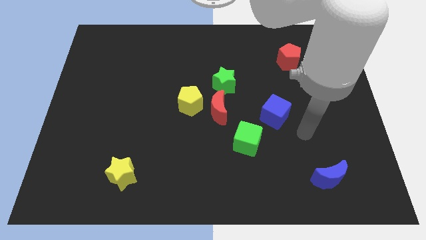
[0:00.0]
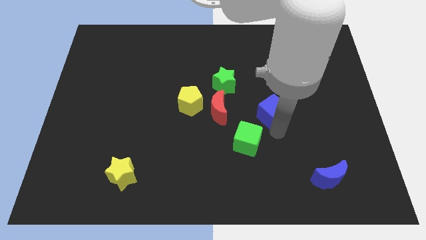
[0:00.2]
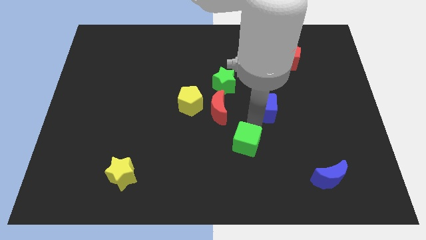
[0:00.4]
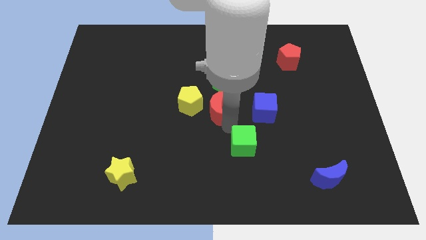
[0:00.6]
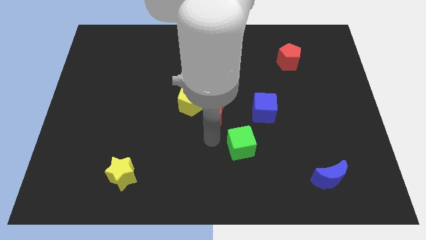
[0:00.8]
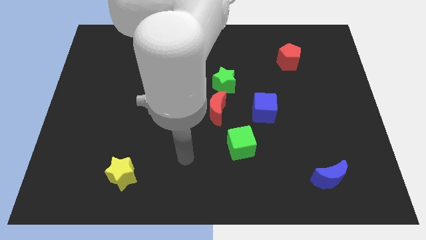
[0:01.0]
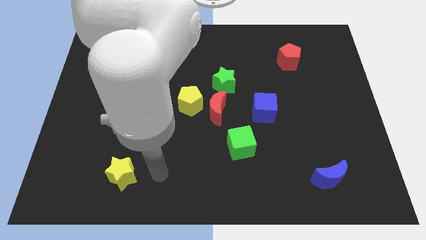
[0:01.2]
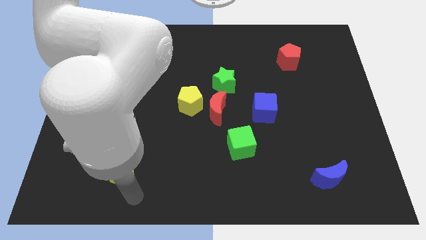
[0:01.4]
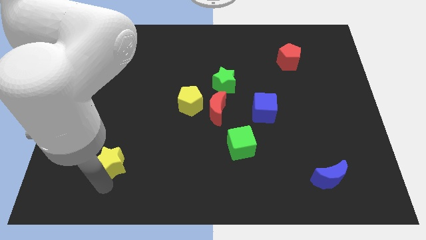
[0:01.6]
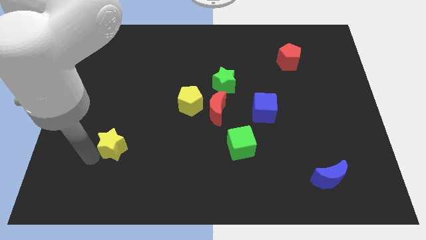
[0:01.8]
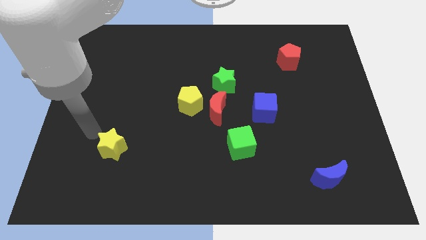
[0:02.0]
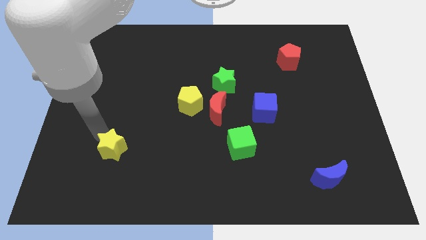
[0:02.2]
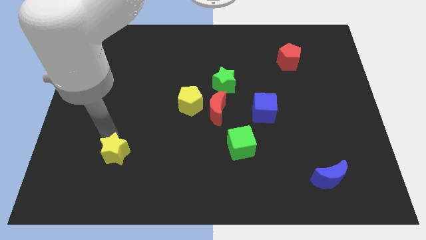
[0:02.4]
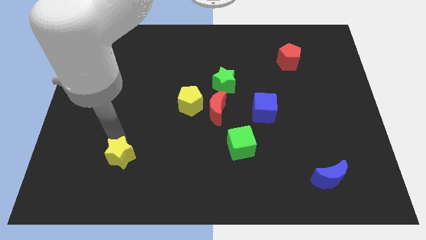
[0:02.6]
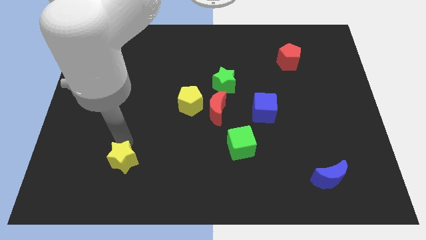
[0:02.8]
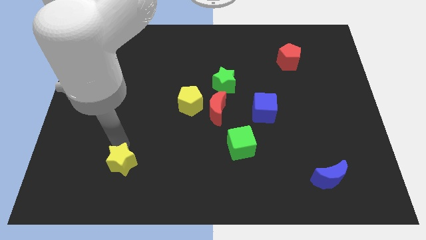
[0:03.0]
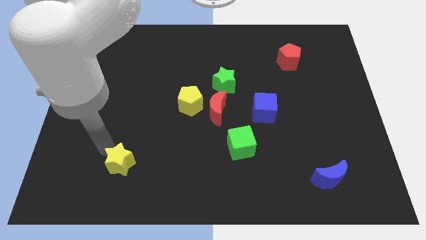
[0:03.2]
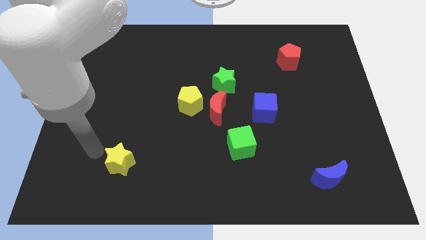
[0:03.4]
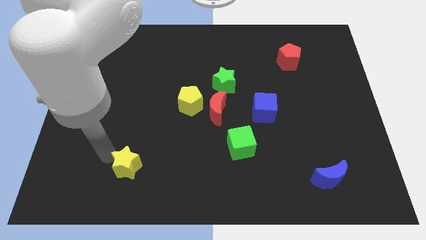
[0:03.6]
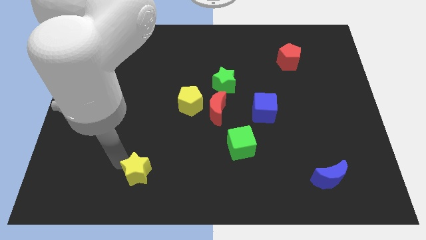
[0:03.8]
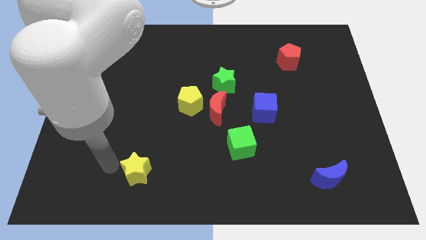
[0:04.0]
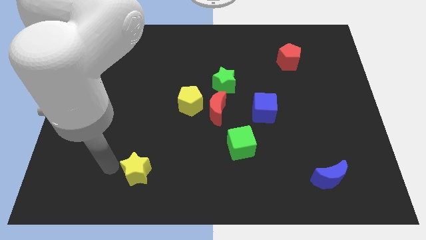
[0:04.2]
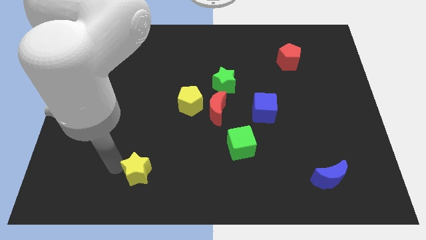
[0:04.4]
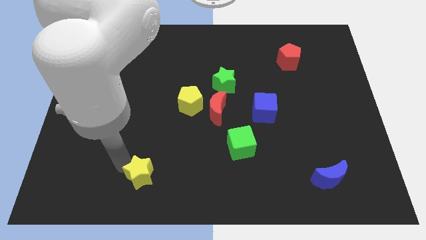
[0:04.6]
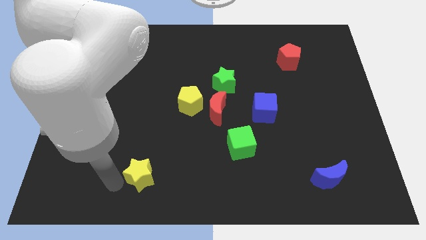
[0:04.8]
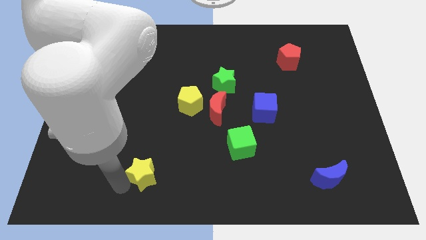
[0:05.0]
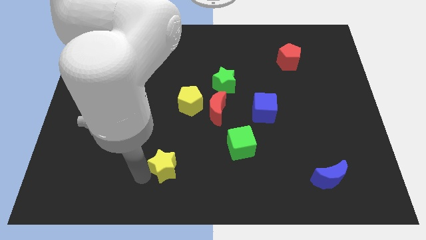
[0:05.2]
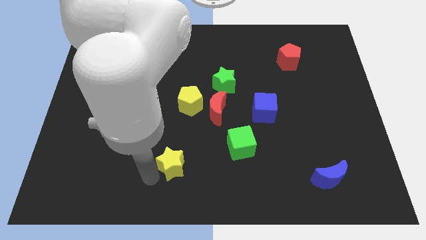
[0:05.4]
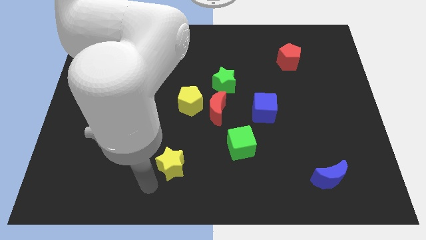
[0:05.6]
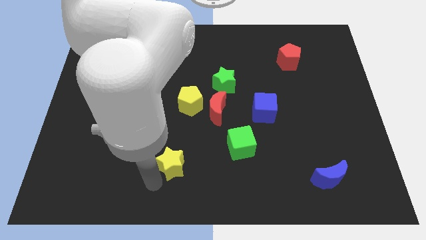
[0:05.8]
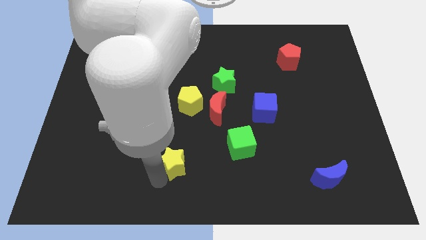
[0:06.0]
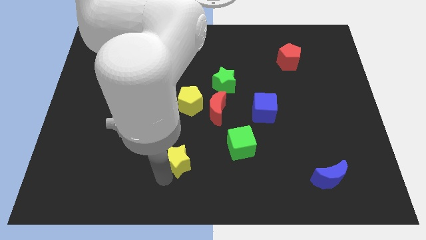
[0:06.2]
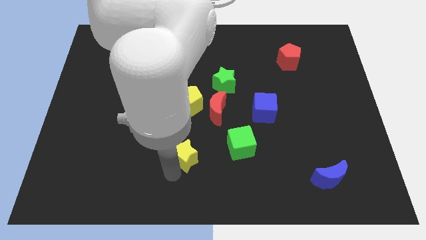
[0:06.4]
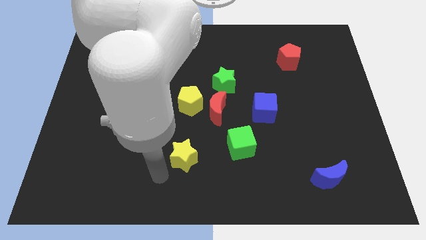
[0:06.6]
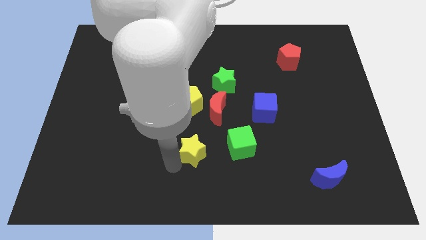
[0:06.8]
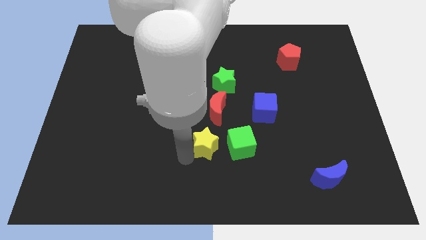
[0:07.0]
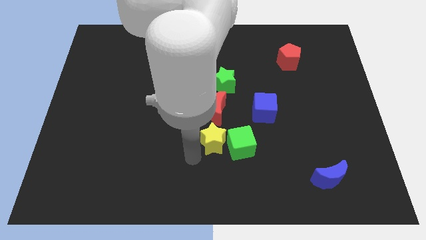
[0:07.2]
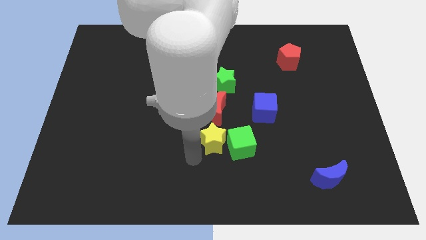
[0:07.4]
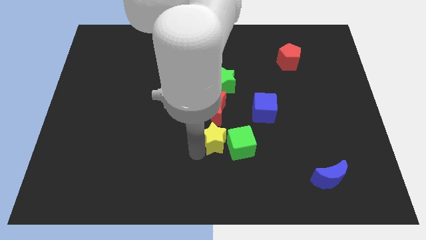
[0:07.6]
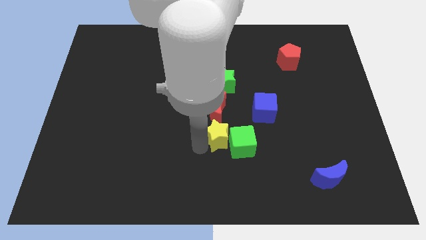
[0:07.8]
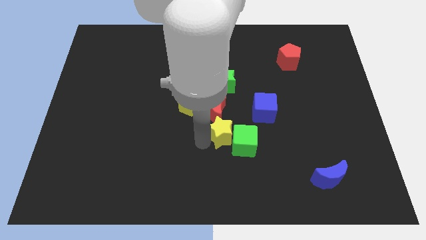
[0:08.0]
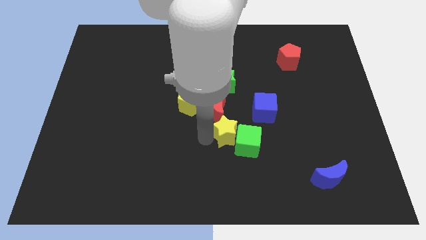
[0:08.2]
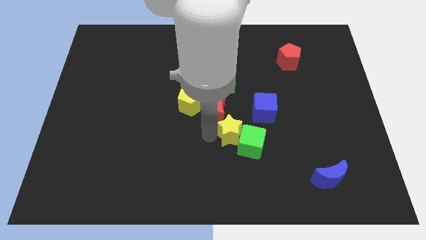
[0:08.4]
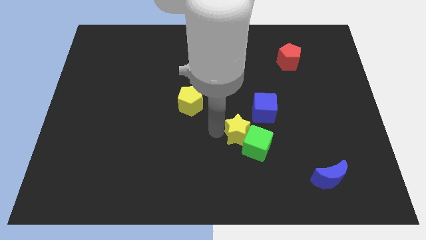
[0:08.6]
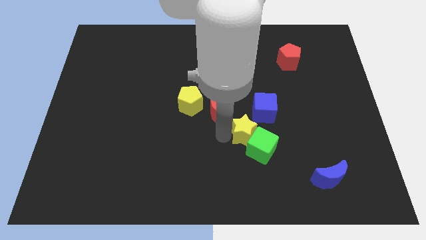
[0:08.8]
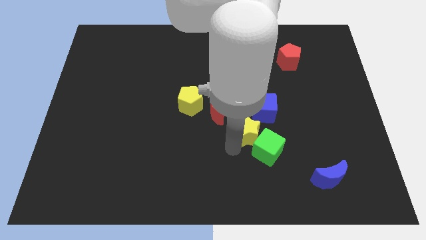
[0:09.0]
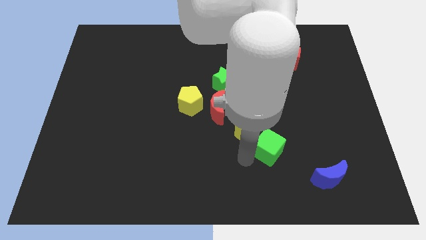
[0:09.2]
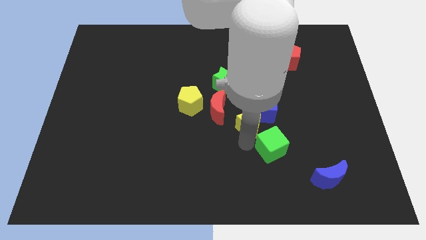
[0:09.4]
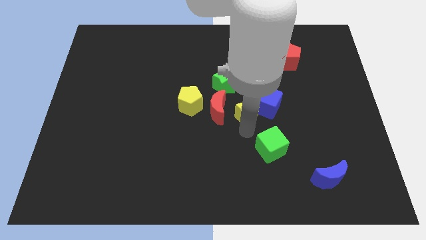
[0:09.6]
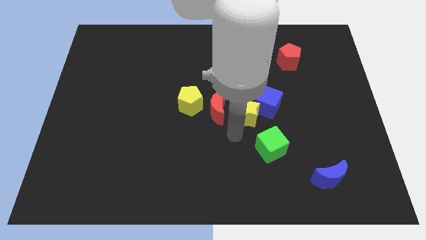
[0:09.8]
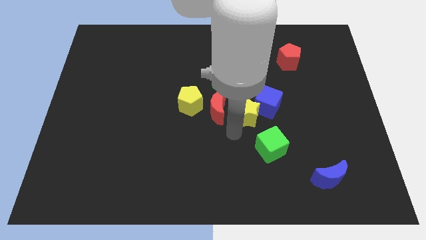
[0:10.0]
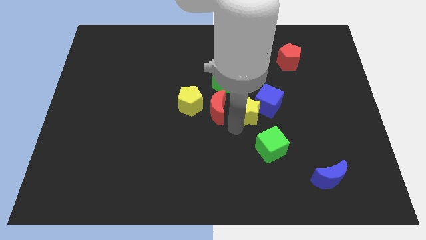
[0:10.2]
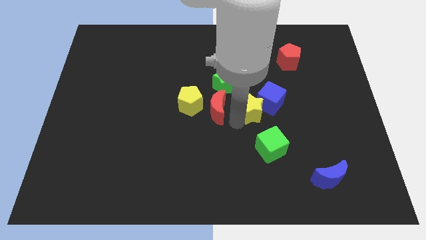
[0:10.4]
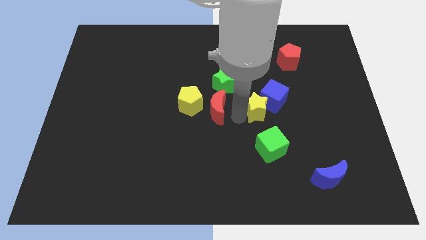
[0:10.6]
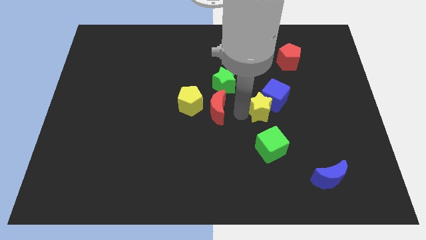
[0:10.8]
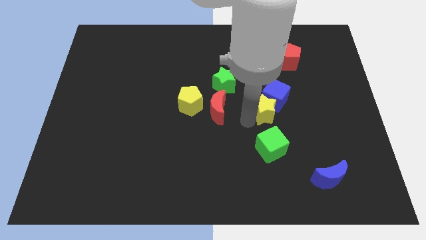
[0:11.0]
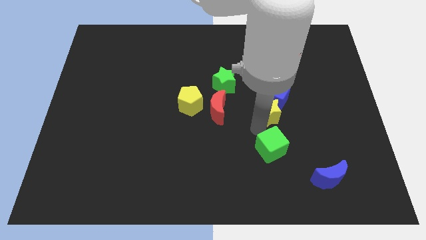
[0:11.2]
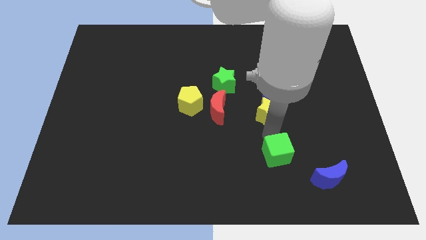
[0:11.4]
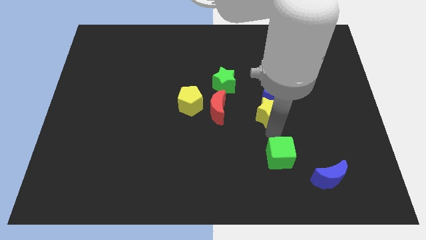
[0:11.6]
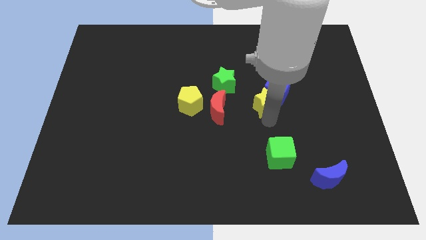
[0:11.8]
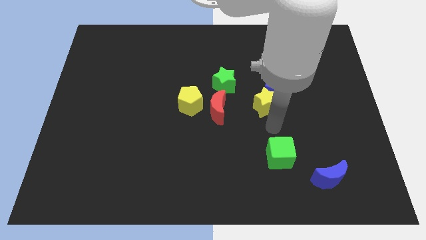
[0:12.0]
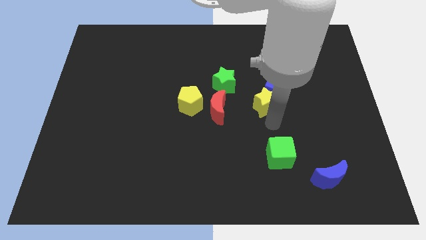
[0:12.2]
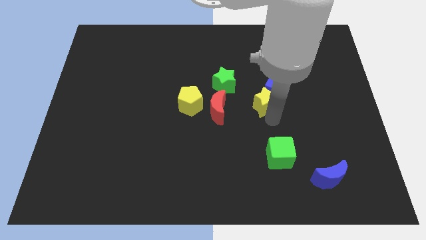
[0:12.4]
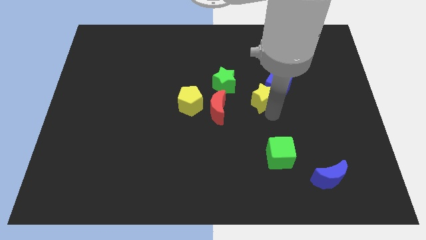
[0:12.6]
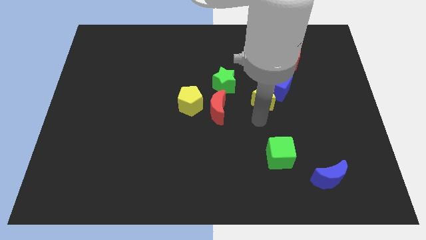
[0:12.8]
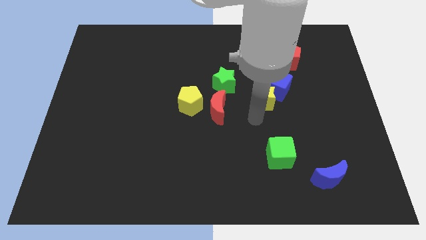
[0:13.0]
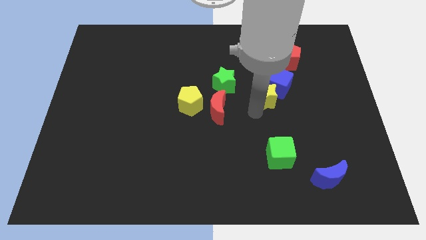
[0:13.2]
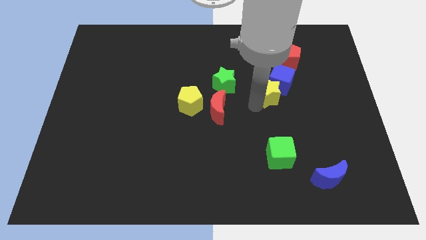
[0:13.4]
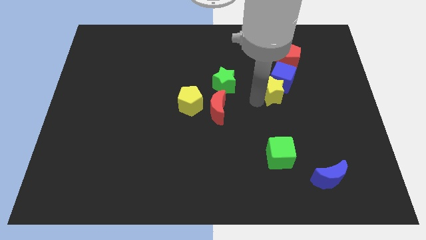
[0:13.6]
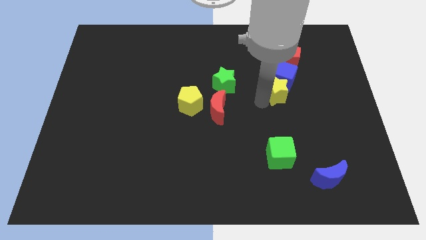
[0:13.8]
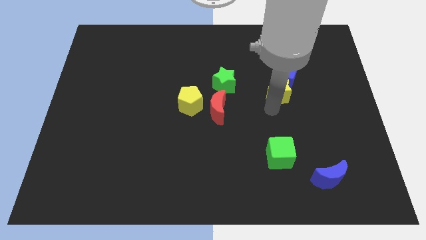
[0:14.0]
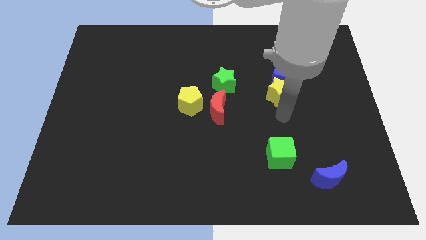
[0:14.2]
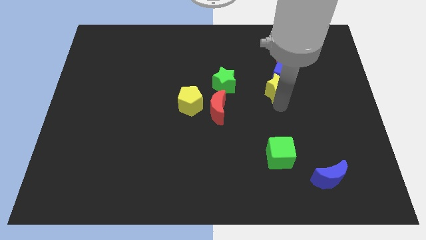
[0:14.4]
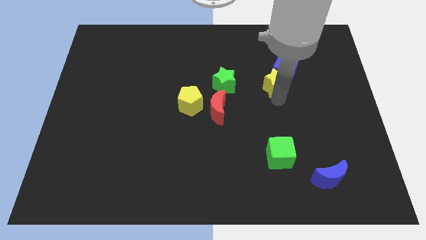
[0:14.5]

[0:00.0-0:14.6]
move the yellow star diagonally down and to the left of the red pentagon
